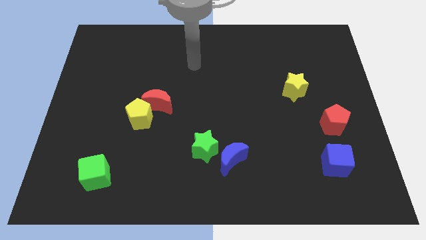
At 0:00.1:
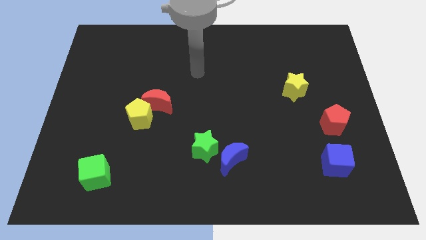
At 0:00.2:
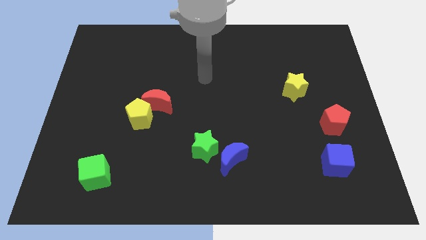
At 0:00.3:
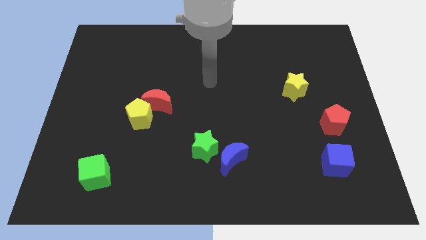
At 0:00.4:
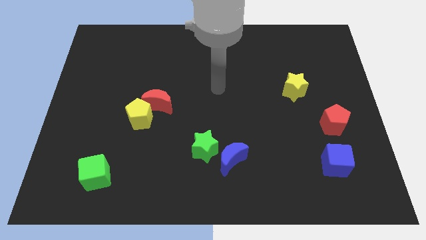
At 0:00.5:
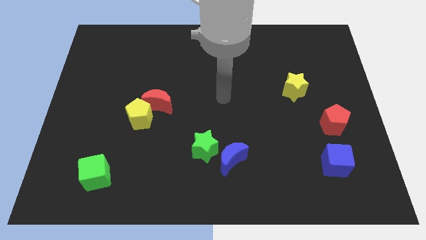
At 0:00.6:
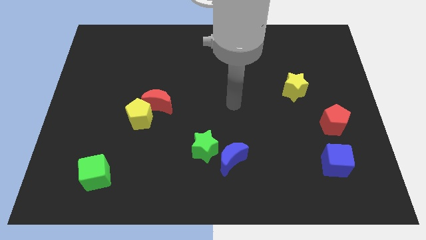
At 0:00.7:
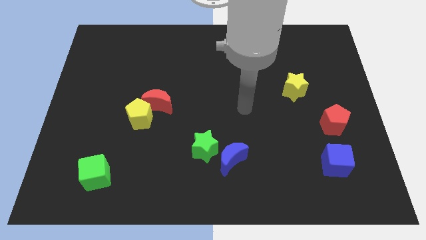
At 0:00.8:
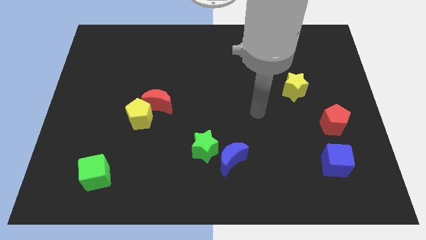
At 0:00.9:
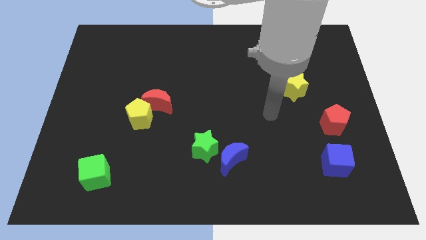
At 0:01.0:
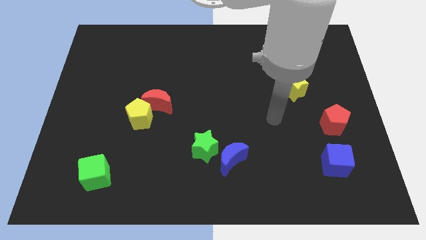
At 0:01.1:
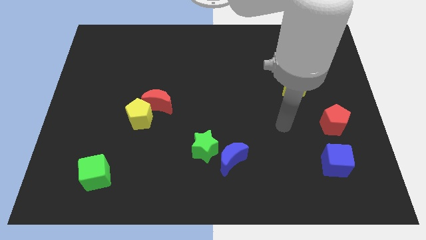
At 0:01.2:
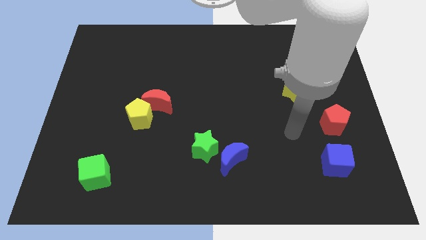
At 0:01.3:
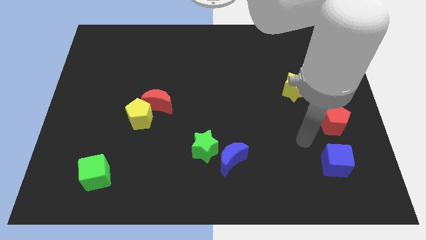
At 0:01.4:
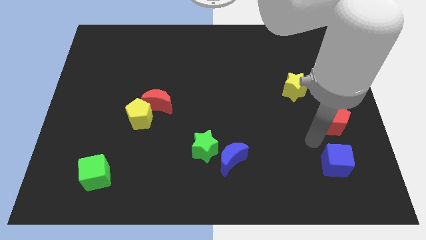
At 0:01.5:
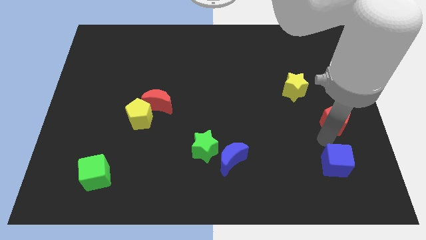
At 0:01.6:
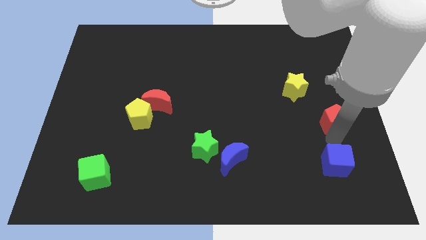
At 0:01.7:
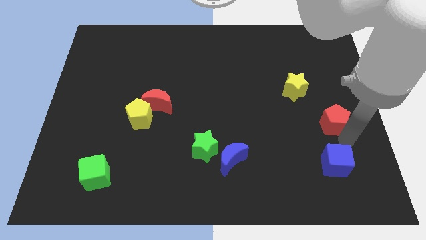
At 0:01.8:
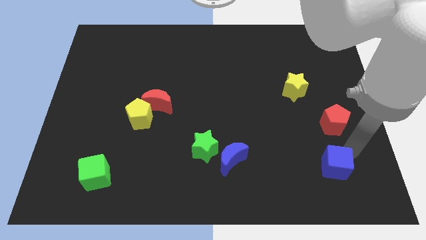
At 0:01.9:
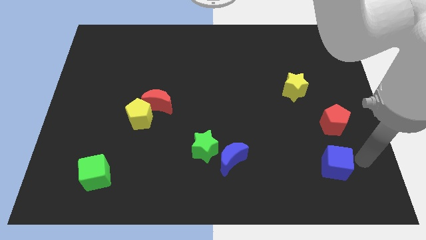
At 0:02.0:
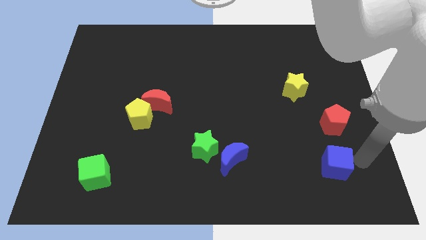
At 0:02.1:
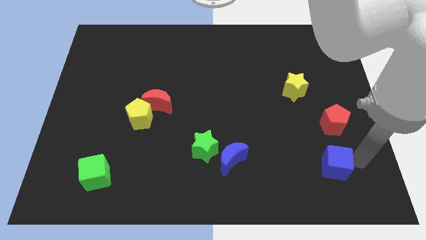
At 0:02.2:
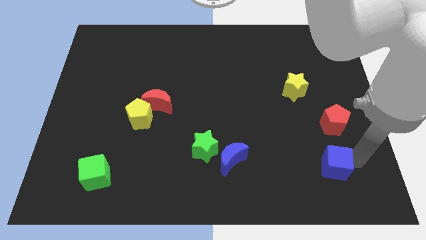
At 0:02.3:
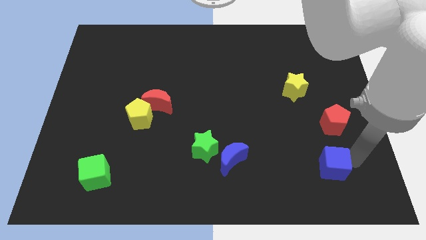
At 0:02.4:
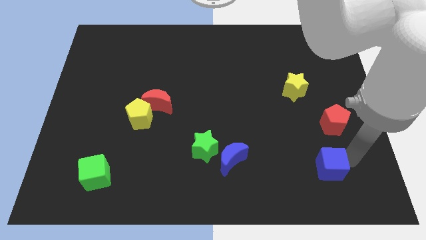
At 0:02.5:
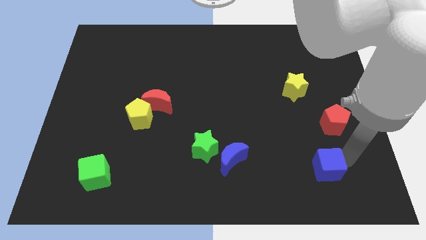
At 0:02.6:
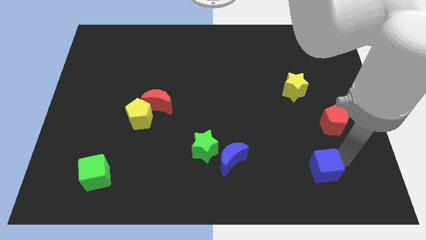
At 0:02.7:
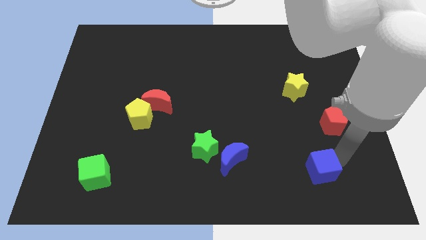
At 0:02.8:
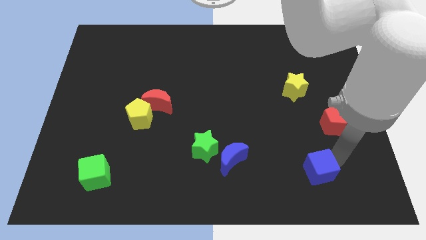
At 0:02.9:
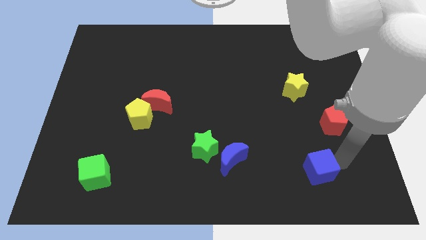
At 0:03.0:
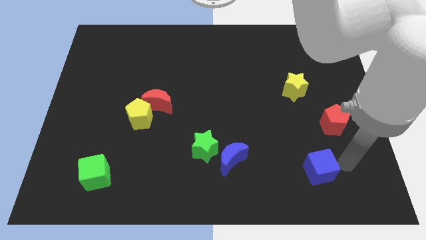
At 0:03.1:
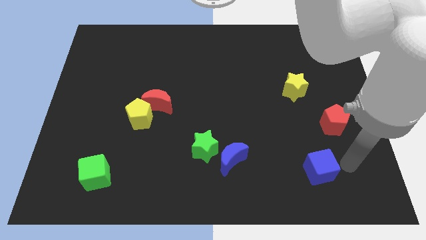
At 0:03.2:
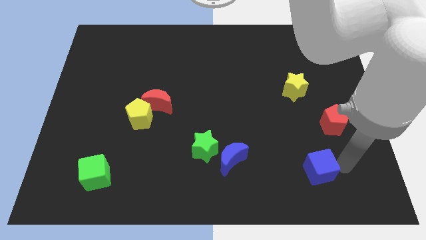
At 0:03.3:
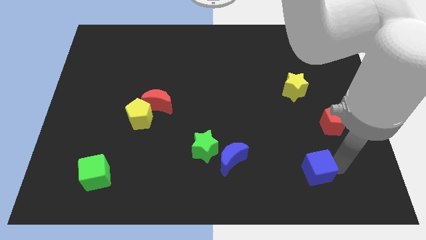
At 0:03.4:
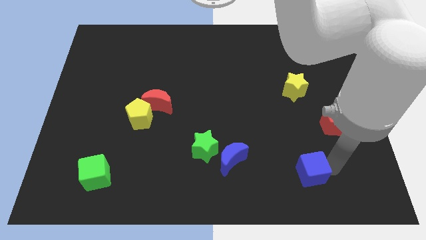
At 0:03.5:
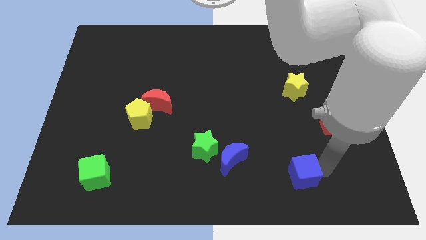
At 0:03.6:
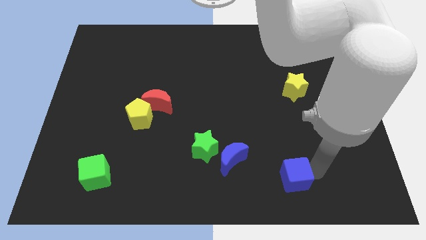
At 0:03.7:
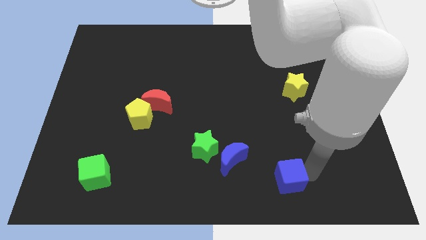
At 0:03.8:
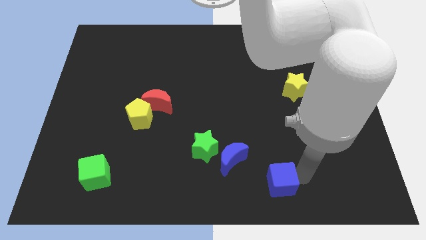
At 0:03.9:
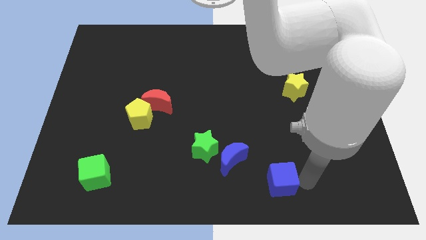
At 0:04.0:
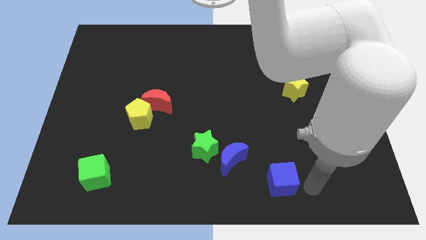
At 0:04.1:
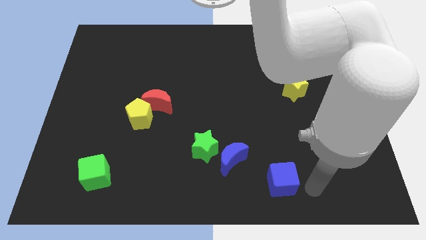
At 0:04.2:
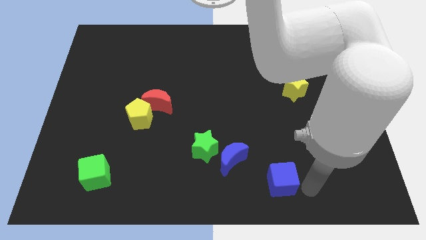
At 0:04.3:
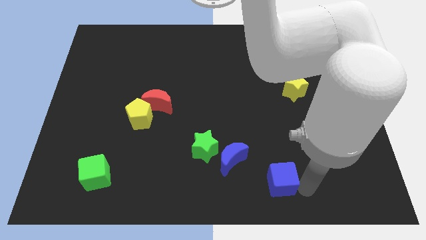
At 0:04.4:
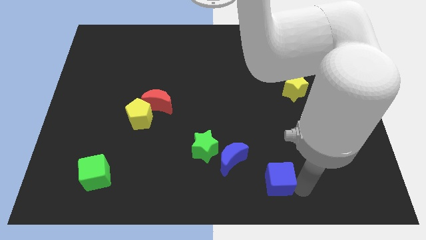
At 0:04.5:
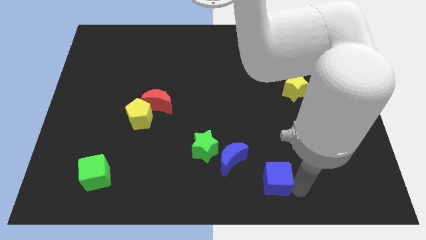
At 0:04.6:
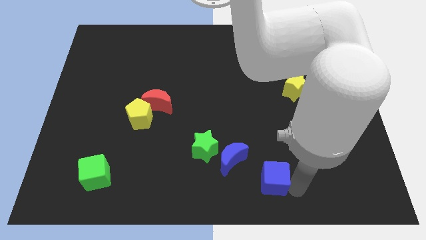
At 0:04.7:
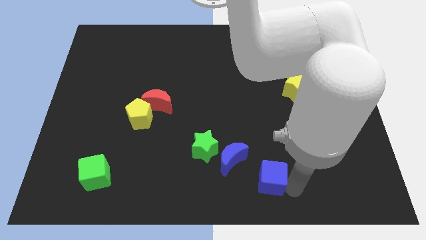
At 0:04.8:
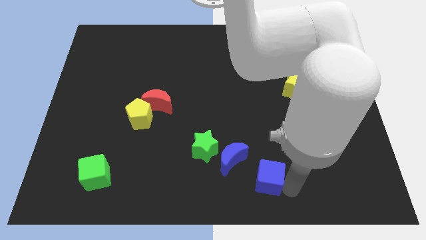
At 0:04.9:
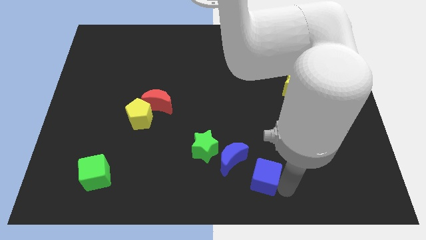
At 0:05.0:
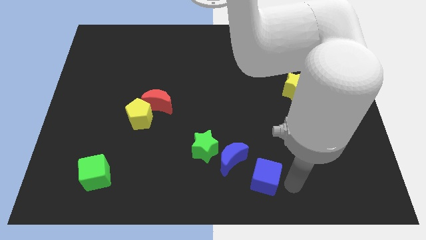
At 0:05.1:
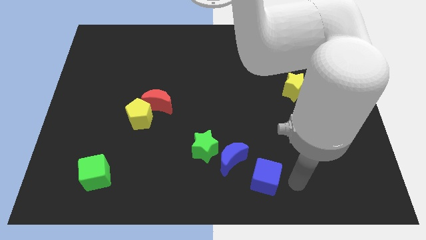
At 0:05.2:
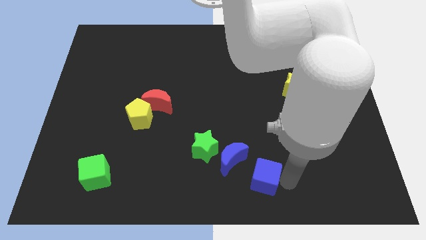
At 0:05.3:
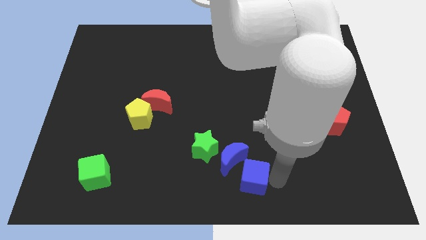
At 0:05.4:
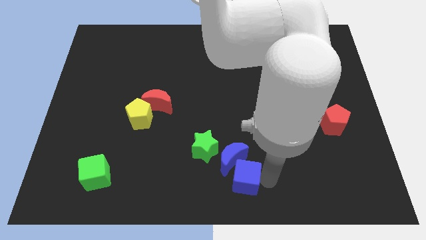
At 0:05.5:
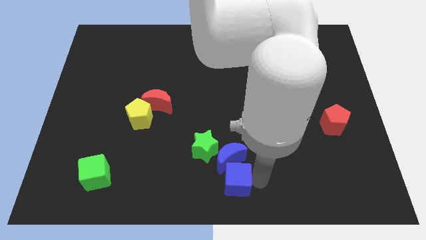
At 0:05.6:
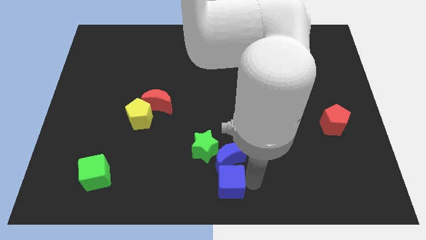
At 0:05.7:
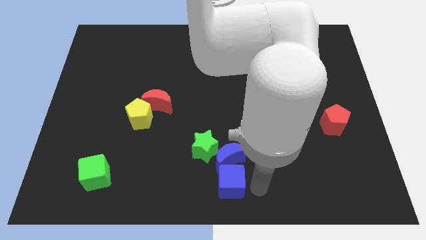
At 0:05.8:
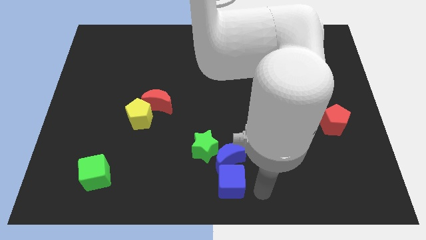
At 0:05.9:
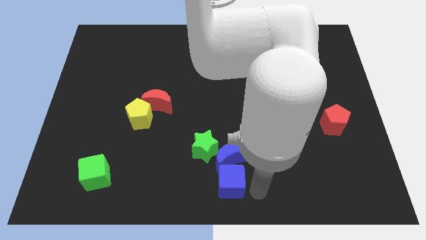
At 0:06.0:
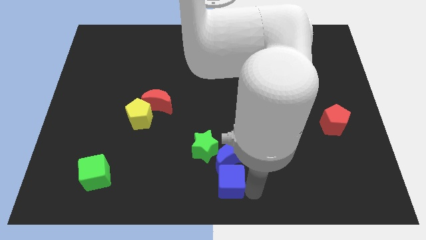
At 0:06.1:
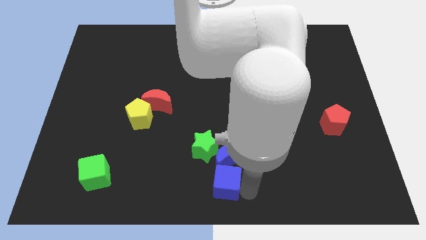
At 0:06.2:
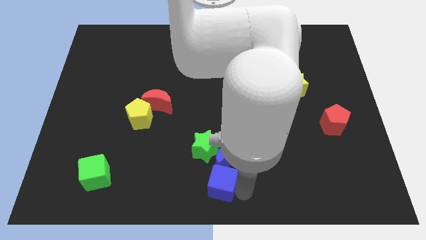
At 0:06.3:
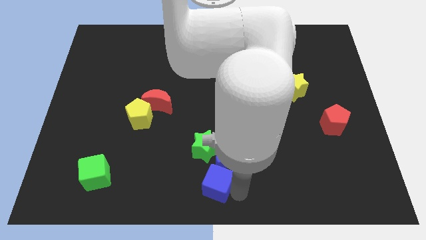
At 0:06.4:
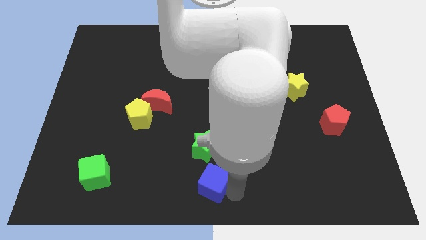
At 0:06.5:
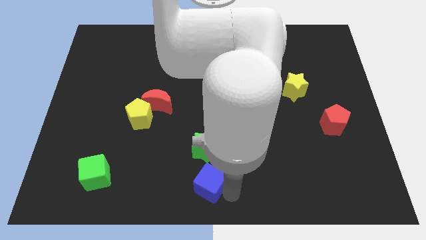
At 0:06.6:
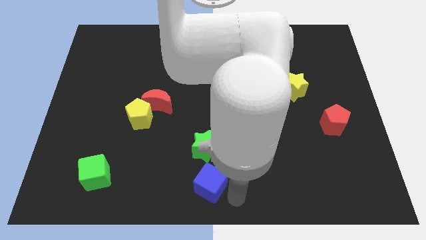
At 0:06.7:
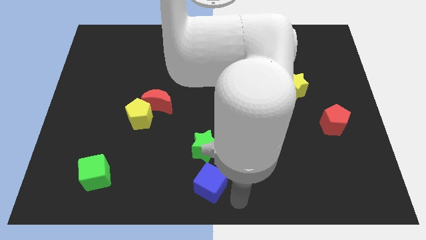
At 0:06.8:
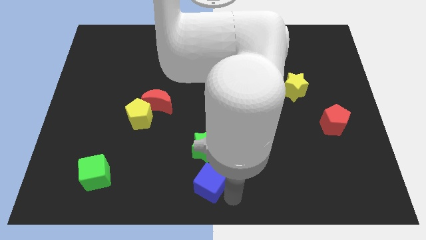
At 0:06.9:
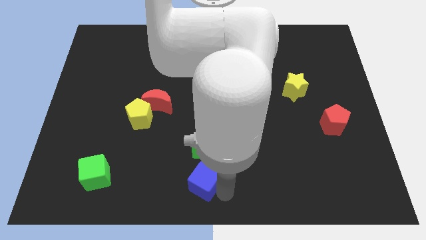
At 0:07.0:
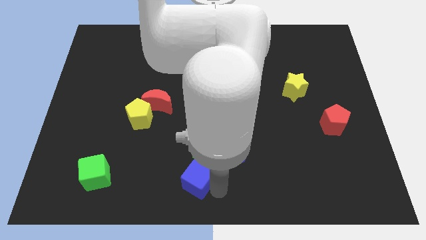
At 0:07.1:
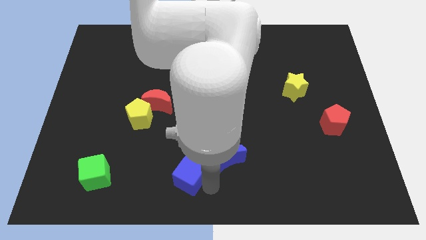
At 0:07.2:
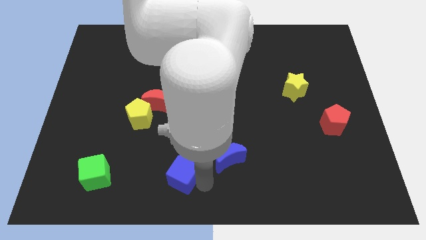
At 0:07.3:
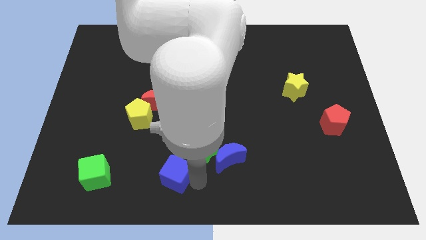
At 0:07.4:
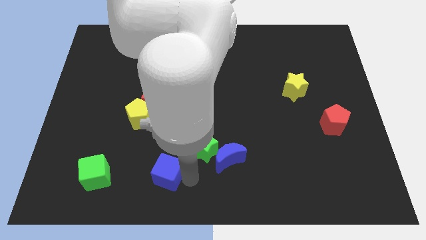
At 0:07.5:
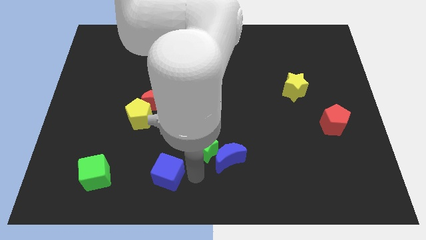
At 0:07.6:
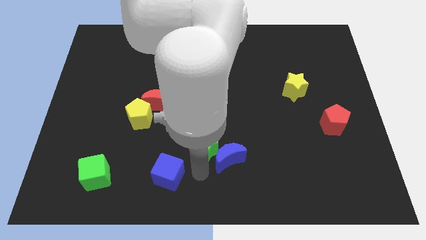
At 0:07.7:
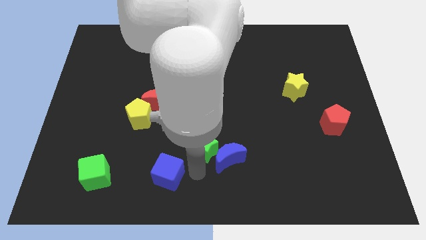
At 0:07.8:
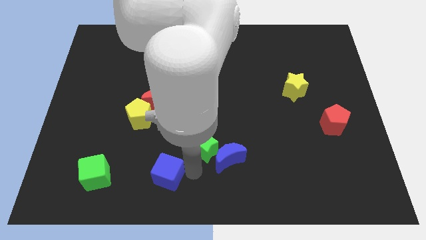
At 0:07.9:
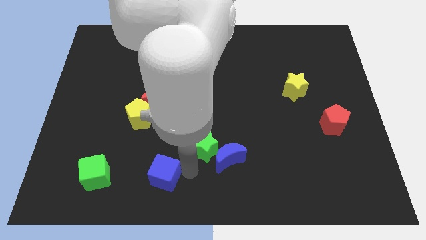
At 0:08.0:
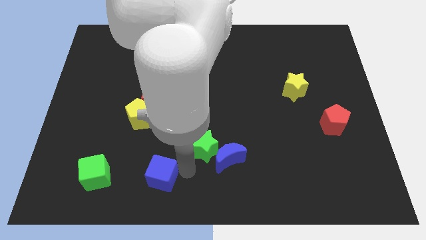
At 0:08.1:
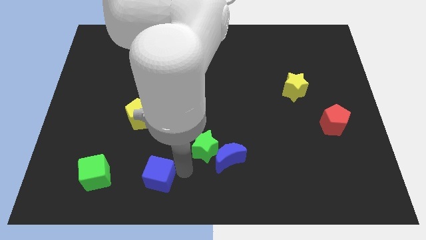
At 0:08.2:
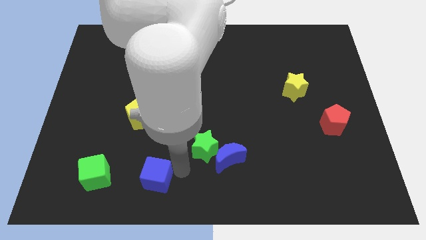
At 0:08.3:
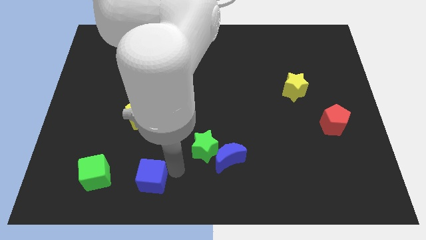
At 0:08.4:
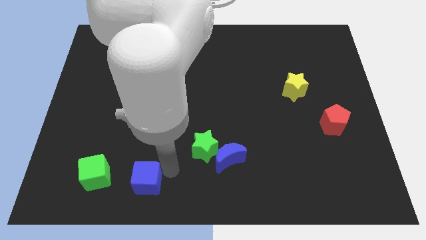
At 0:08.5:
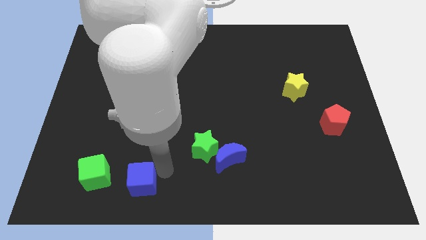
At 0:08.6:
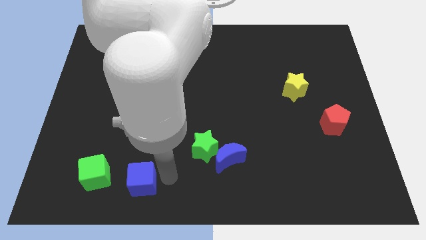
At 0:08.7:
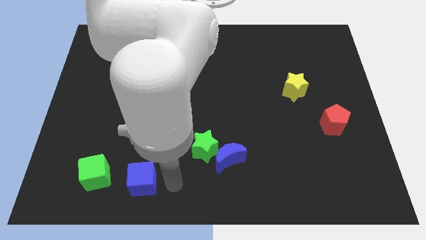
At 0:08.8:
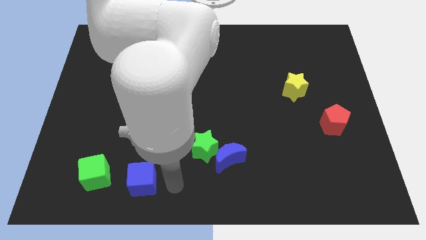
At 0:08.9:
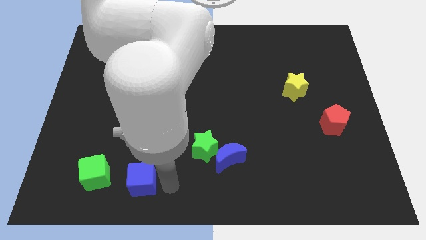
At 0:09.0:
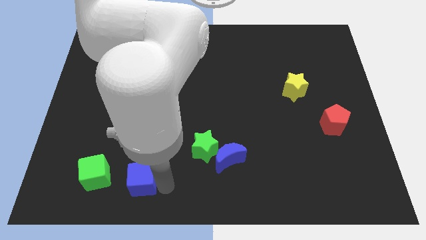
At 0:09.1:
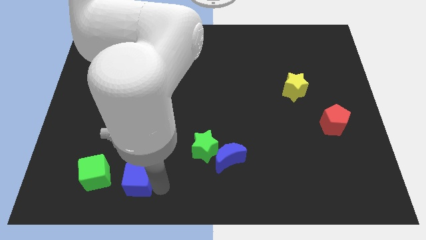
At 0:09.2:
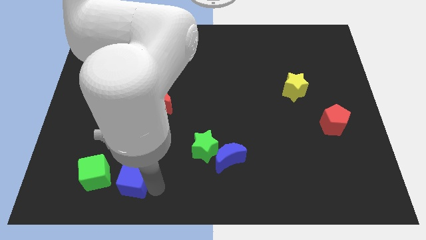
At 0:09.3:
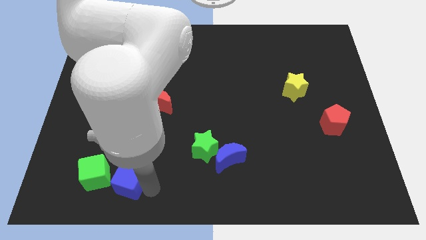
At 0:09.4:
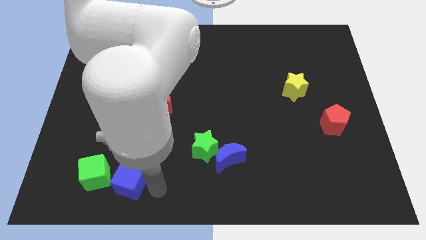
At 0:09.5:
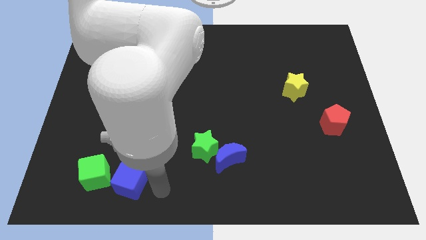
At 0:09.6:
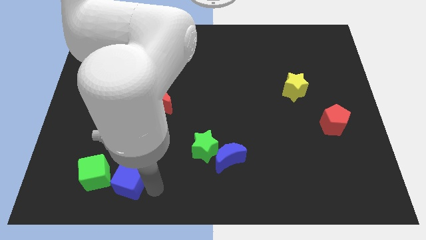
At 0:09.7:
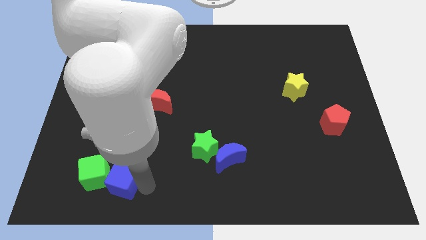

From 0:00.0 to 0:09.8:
put the blue cube close to the green cube
